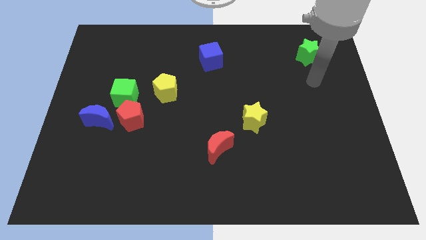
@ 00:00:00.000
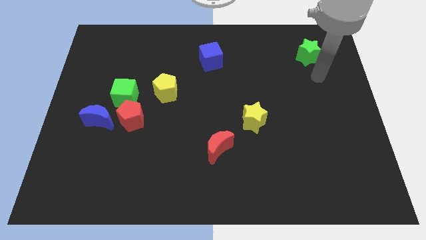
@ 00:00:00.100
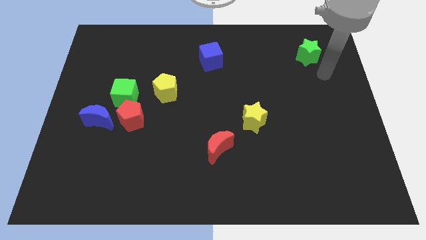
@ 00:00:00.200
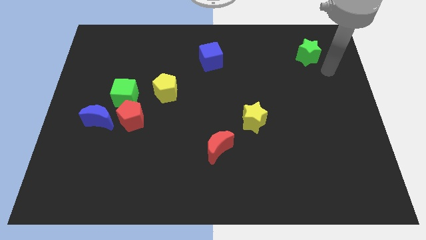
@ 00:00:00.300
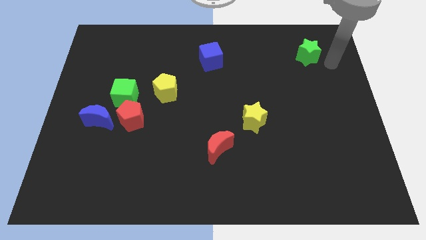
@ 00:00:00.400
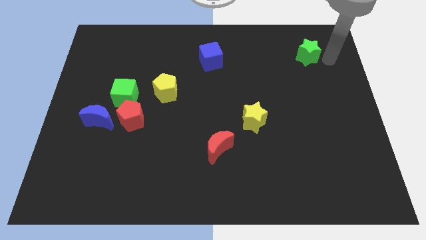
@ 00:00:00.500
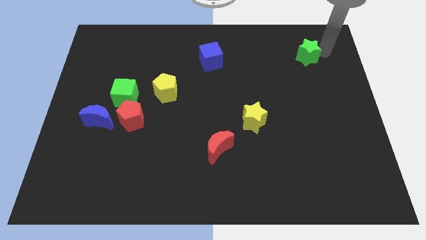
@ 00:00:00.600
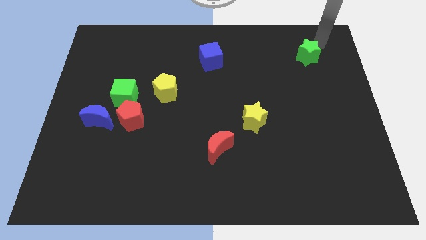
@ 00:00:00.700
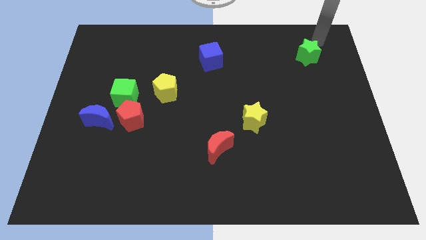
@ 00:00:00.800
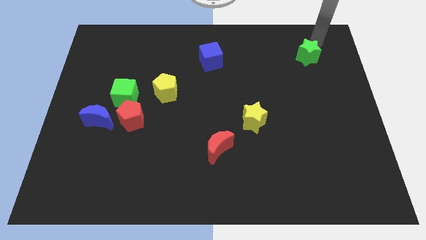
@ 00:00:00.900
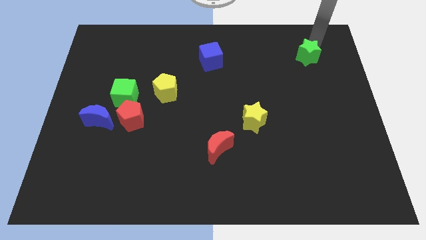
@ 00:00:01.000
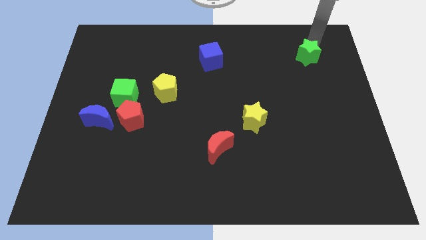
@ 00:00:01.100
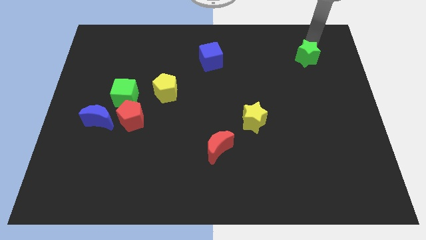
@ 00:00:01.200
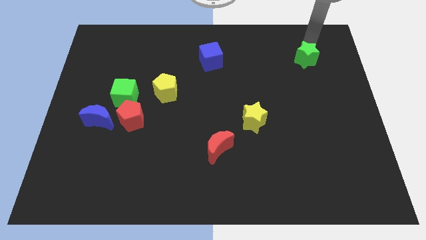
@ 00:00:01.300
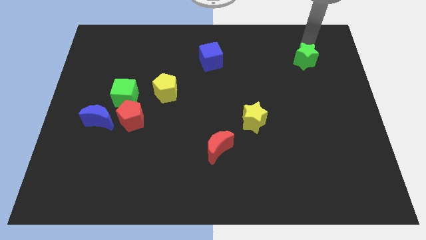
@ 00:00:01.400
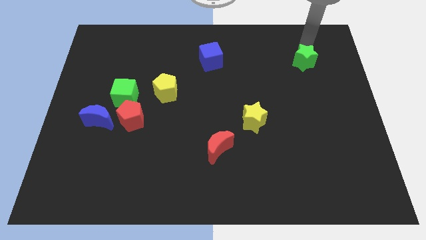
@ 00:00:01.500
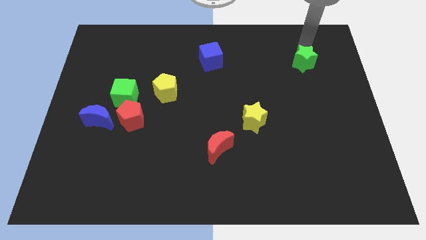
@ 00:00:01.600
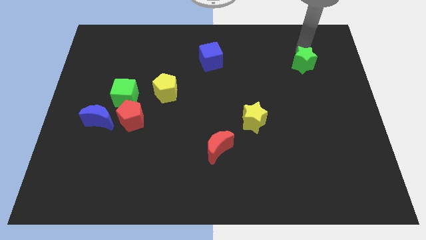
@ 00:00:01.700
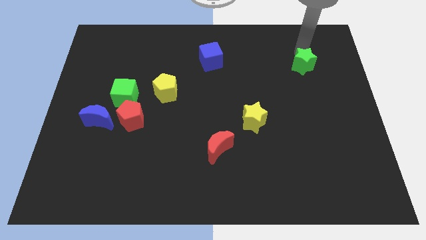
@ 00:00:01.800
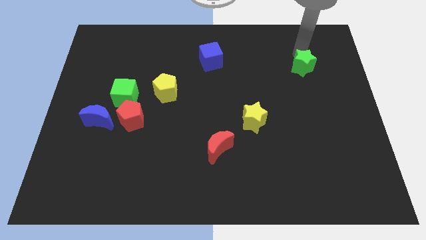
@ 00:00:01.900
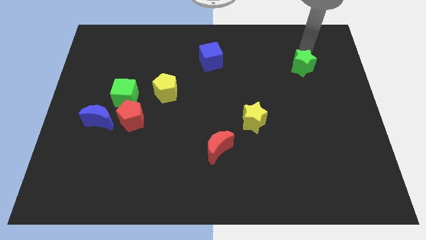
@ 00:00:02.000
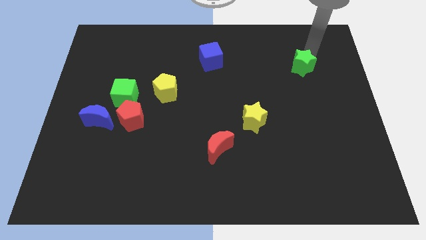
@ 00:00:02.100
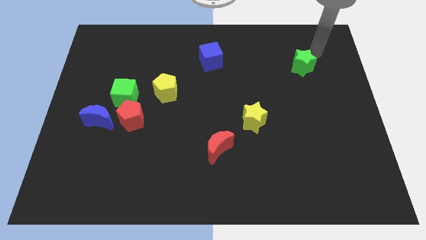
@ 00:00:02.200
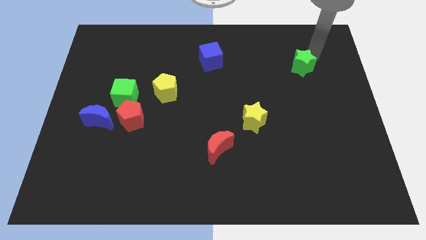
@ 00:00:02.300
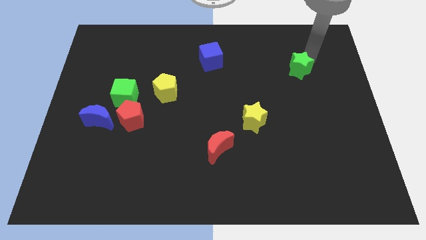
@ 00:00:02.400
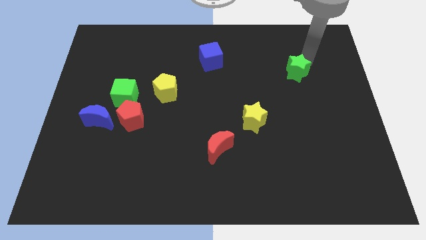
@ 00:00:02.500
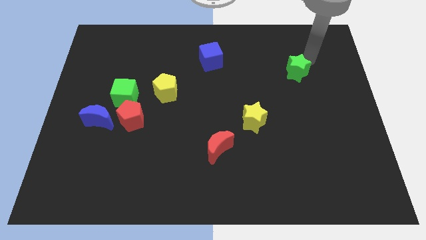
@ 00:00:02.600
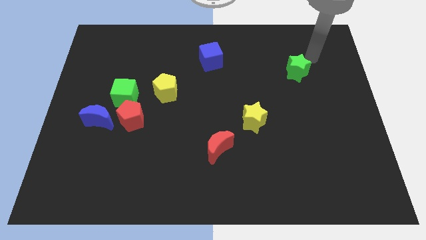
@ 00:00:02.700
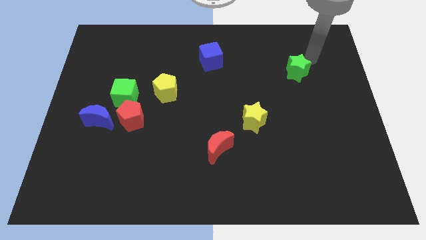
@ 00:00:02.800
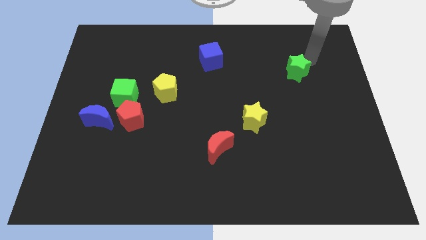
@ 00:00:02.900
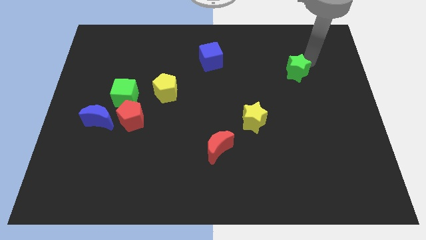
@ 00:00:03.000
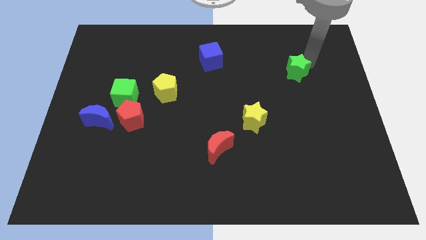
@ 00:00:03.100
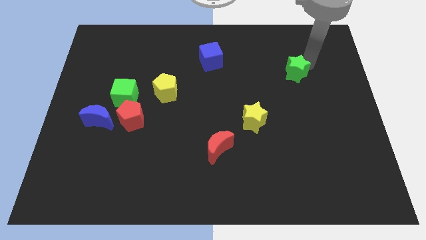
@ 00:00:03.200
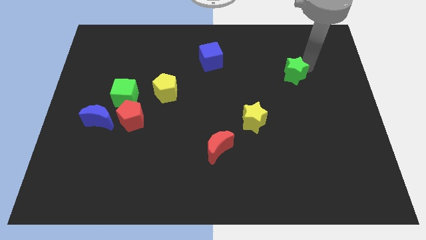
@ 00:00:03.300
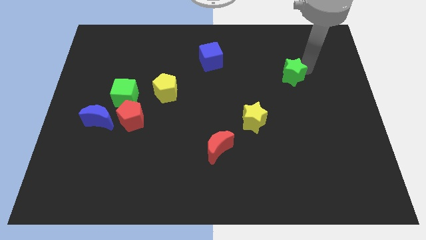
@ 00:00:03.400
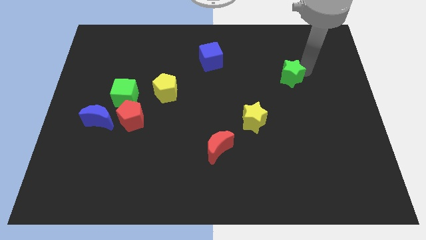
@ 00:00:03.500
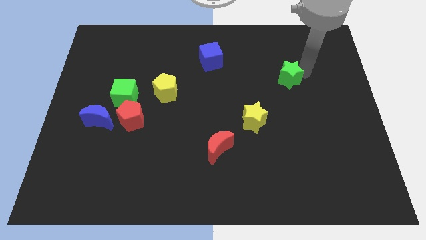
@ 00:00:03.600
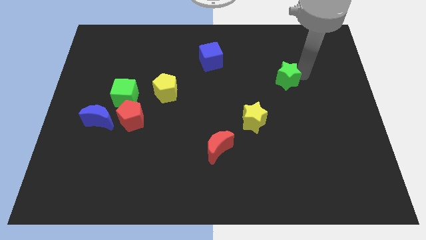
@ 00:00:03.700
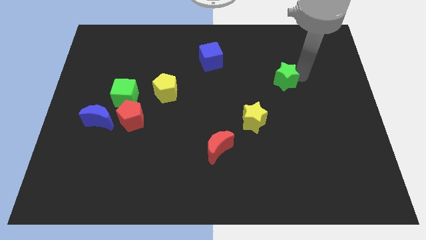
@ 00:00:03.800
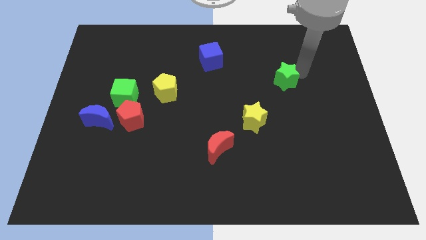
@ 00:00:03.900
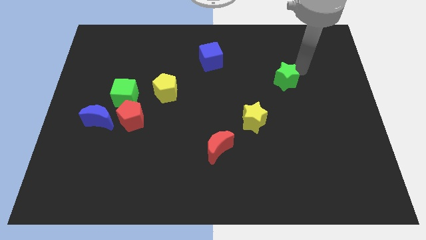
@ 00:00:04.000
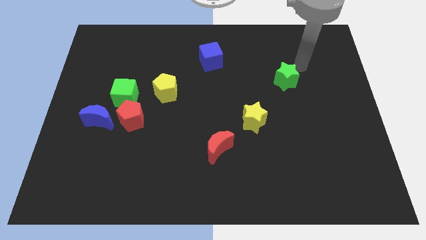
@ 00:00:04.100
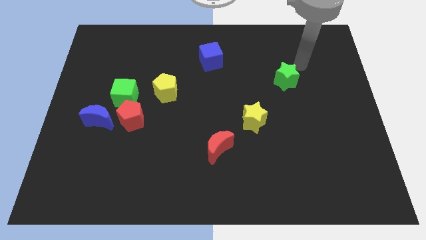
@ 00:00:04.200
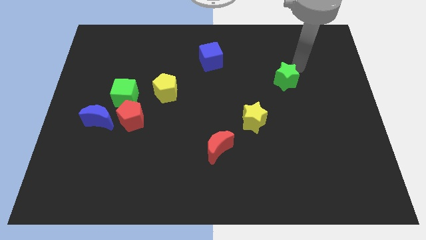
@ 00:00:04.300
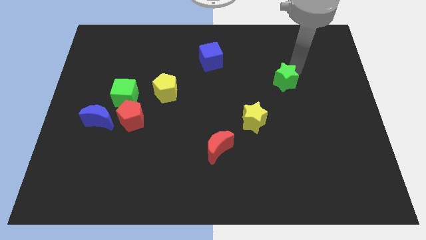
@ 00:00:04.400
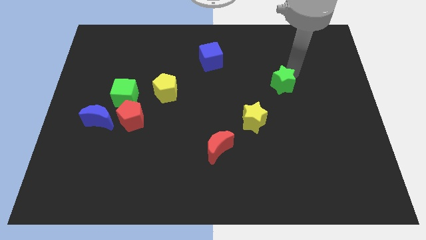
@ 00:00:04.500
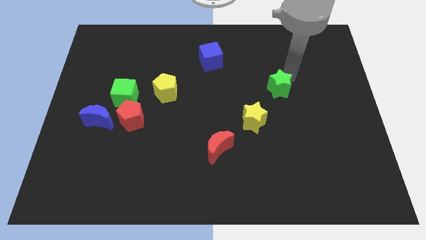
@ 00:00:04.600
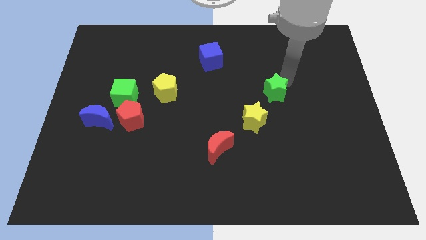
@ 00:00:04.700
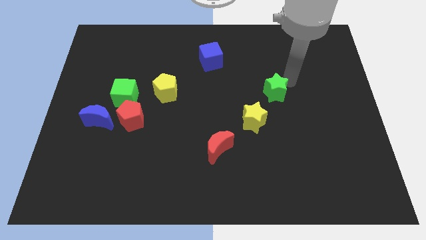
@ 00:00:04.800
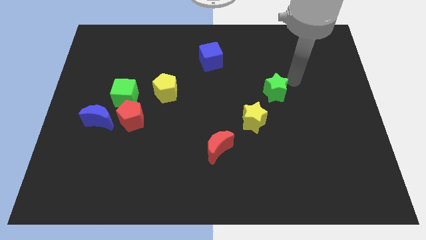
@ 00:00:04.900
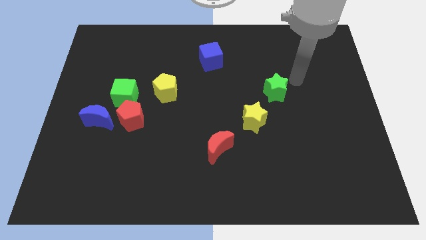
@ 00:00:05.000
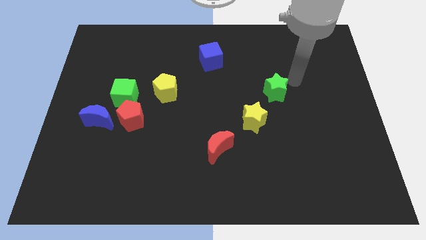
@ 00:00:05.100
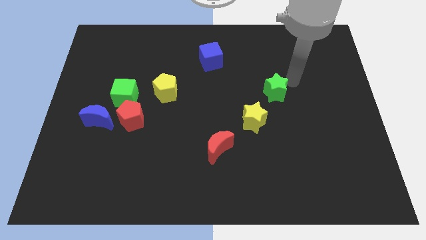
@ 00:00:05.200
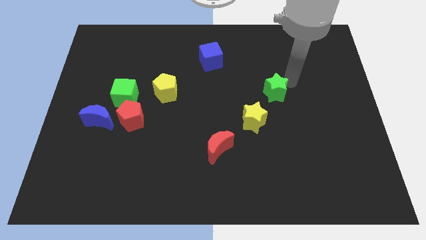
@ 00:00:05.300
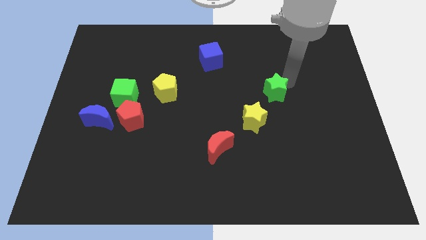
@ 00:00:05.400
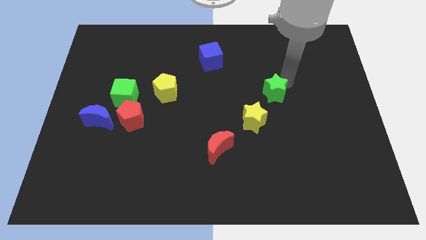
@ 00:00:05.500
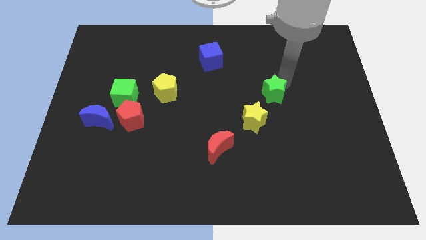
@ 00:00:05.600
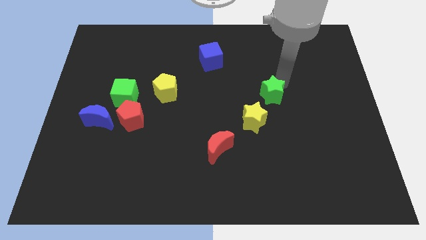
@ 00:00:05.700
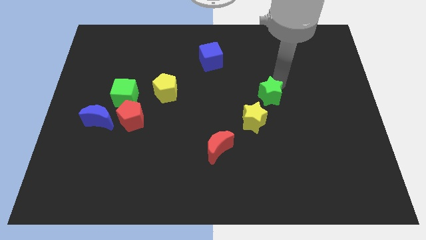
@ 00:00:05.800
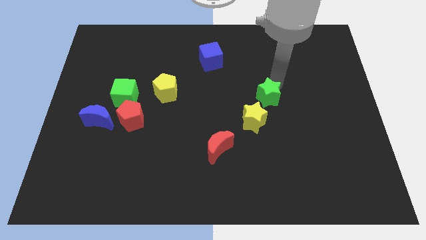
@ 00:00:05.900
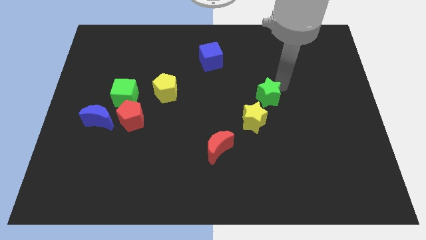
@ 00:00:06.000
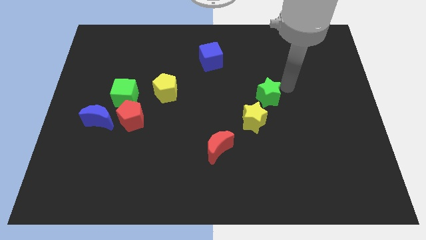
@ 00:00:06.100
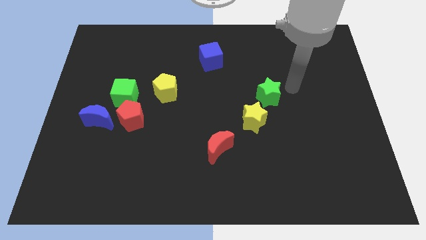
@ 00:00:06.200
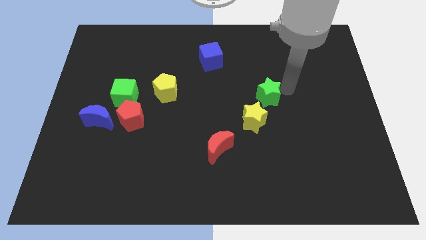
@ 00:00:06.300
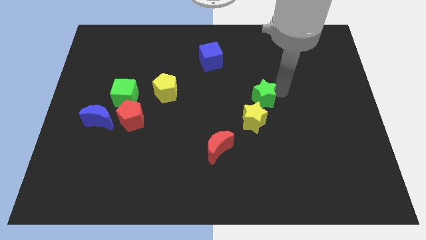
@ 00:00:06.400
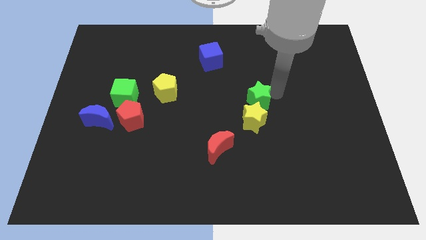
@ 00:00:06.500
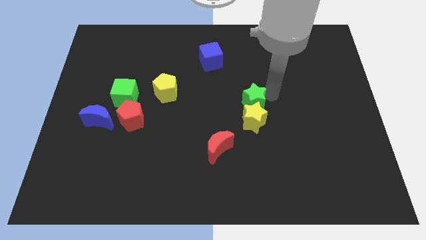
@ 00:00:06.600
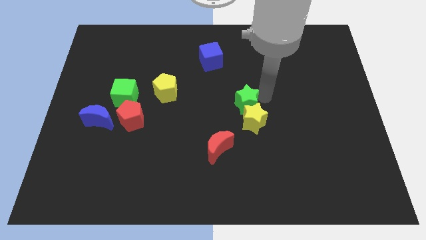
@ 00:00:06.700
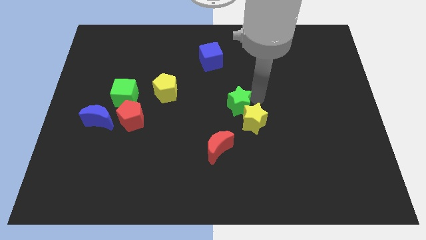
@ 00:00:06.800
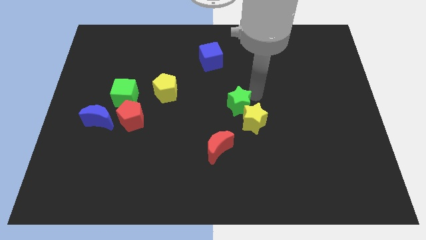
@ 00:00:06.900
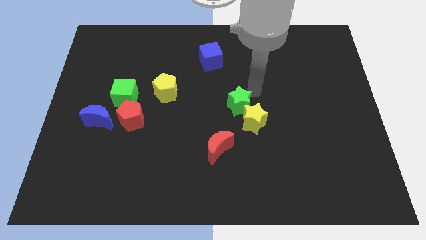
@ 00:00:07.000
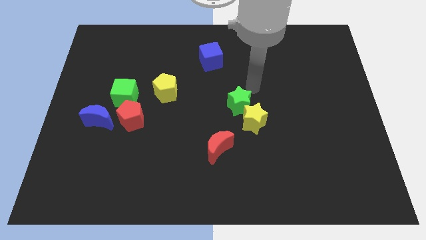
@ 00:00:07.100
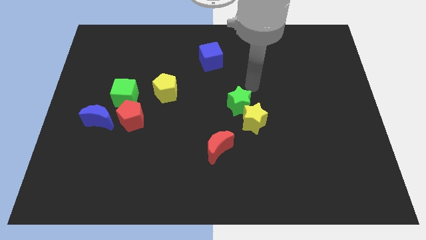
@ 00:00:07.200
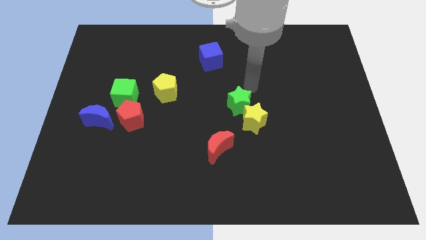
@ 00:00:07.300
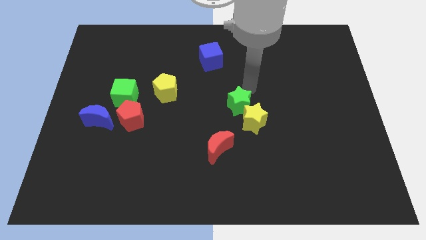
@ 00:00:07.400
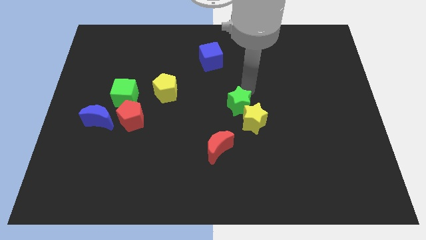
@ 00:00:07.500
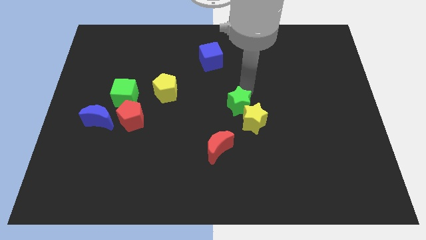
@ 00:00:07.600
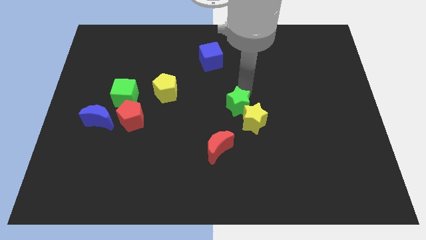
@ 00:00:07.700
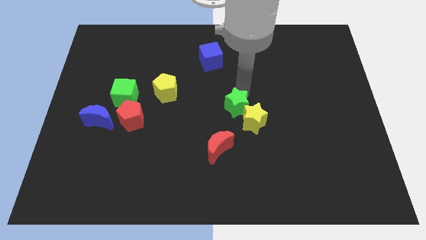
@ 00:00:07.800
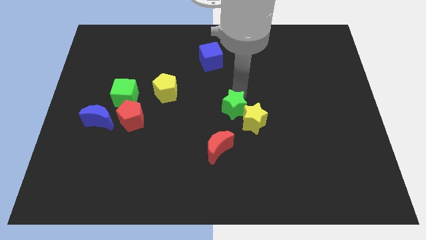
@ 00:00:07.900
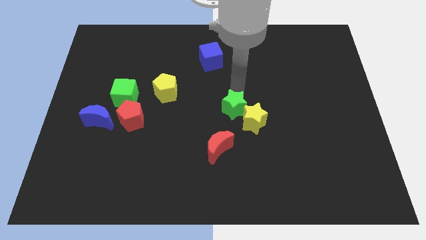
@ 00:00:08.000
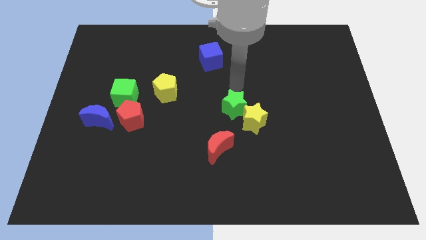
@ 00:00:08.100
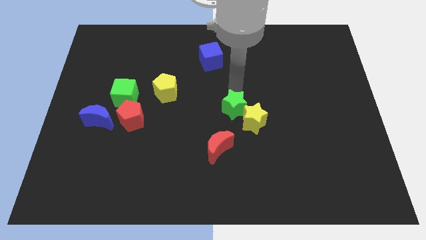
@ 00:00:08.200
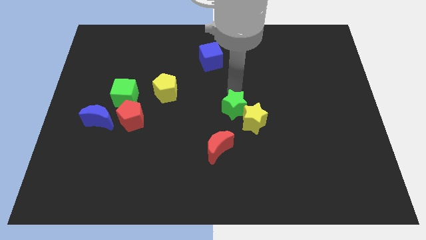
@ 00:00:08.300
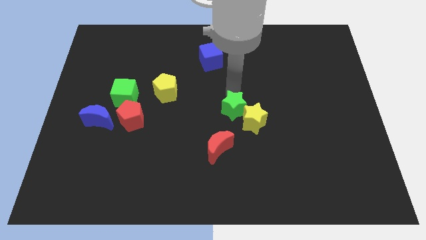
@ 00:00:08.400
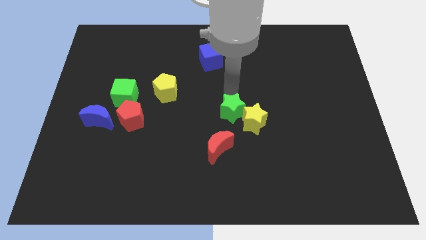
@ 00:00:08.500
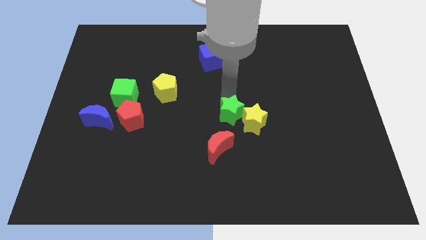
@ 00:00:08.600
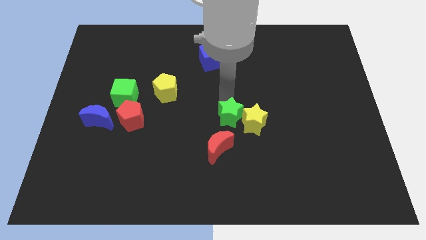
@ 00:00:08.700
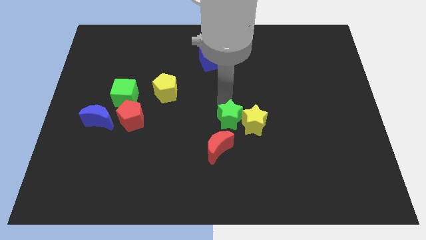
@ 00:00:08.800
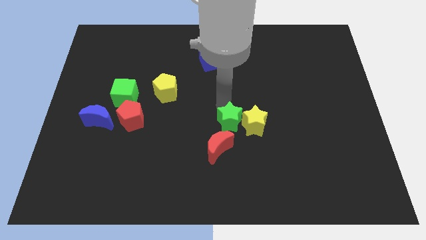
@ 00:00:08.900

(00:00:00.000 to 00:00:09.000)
push the green star to the bottom left side of the yellow star
